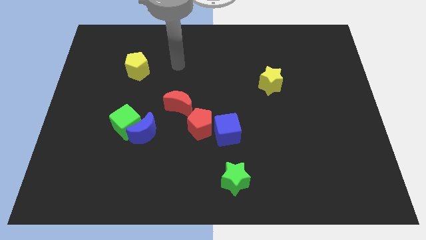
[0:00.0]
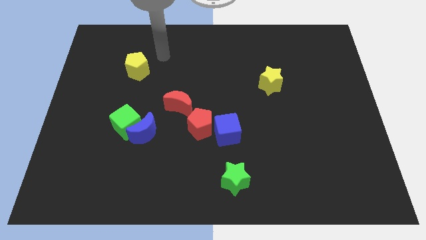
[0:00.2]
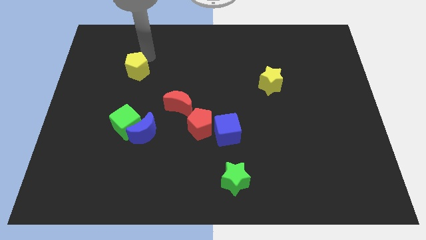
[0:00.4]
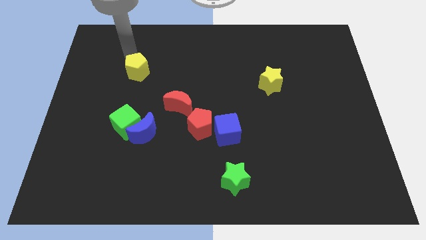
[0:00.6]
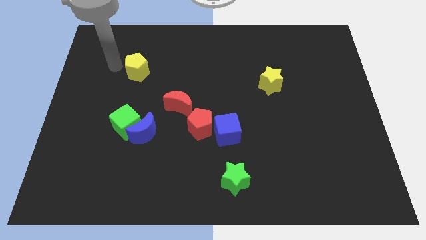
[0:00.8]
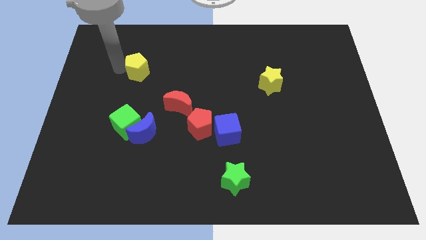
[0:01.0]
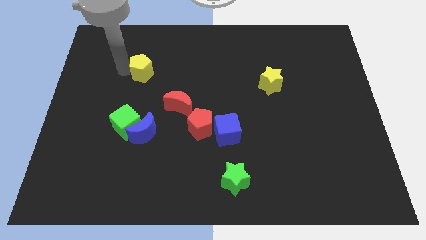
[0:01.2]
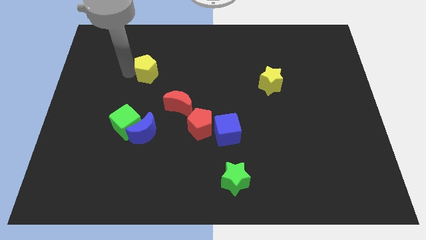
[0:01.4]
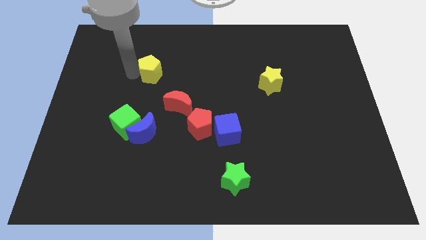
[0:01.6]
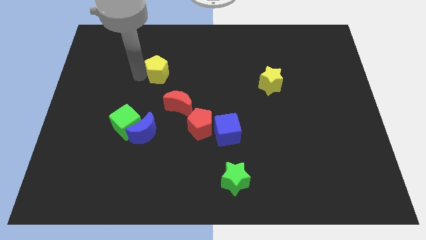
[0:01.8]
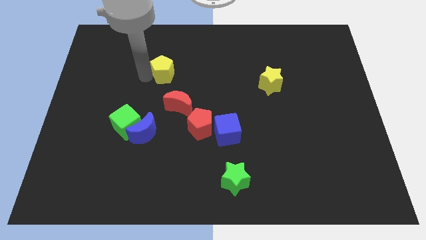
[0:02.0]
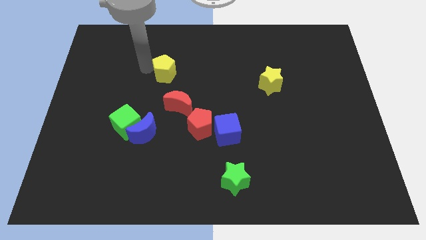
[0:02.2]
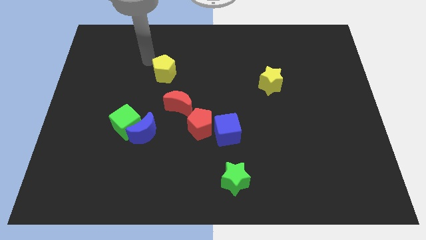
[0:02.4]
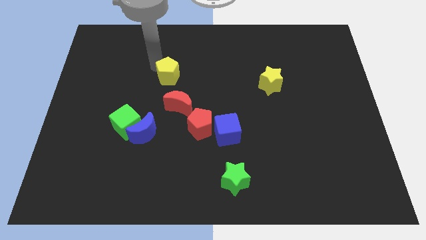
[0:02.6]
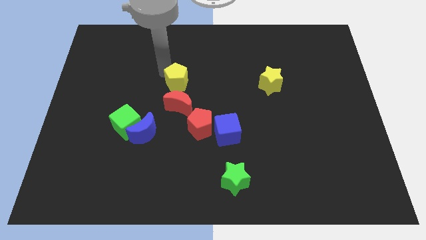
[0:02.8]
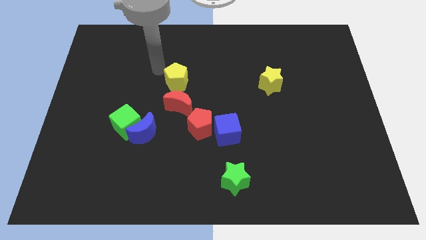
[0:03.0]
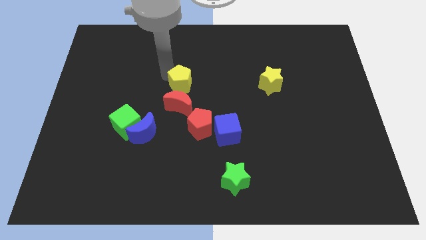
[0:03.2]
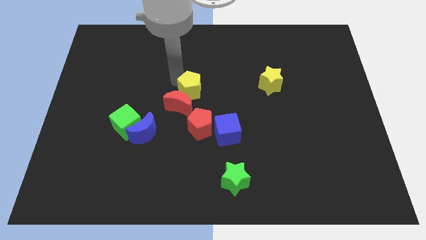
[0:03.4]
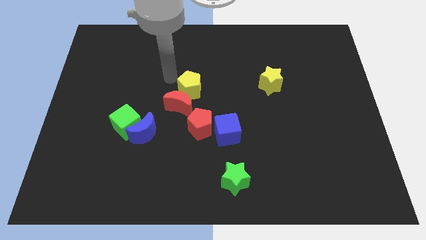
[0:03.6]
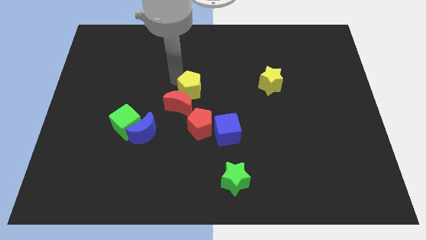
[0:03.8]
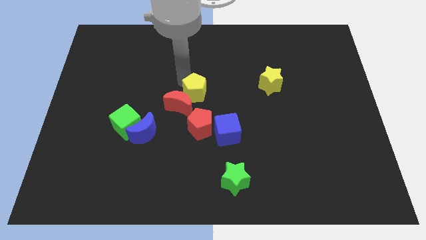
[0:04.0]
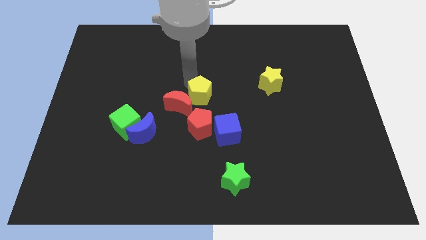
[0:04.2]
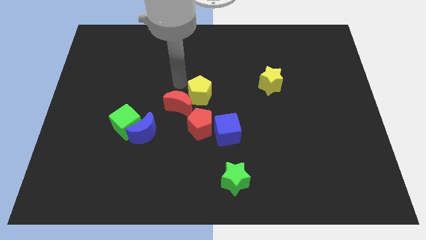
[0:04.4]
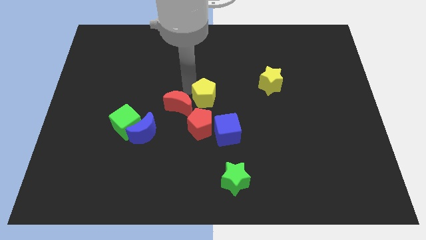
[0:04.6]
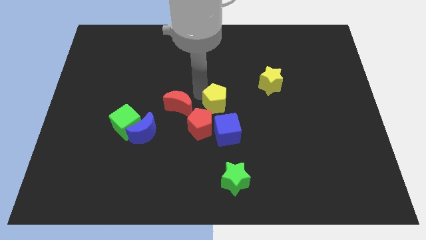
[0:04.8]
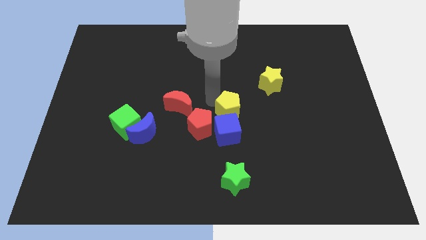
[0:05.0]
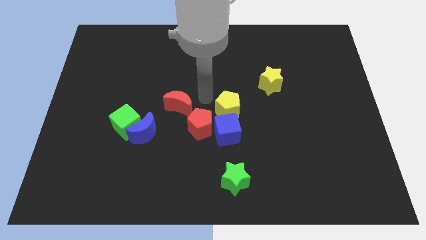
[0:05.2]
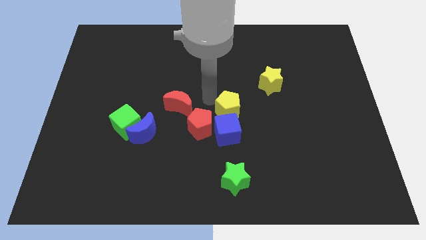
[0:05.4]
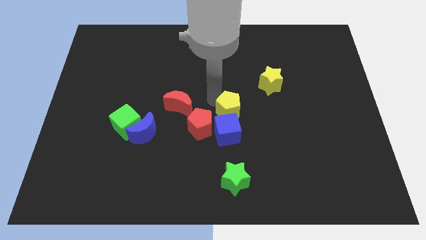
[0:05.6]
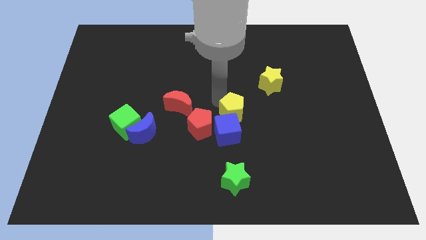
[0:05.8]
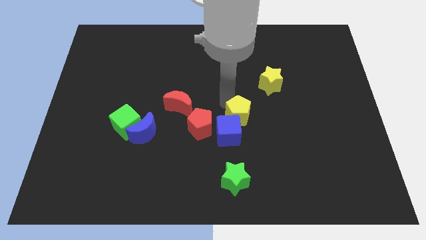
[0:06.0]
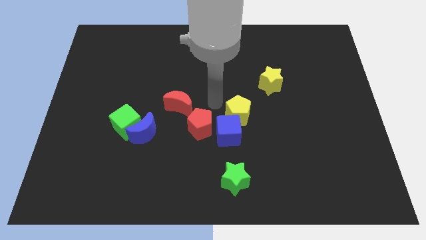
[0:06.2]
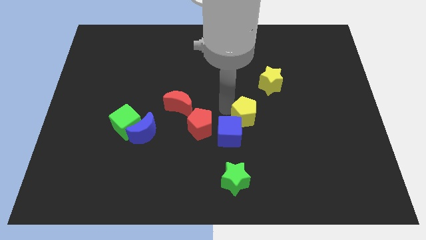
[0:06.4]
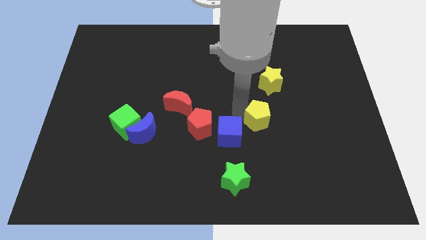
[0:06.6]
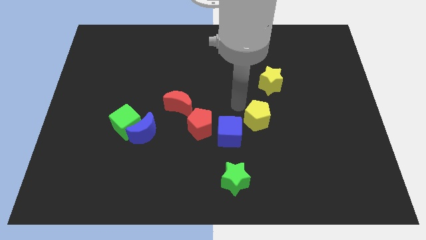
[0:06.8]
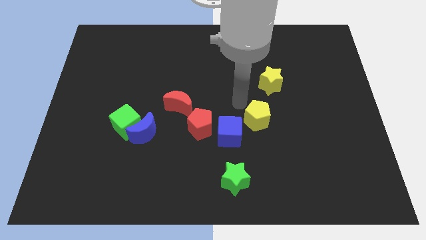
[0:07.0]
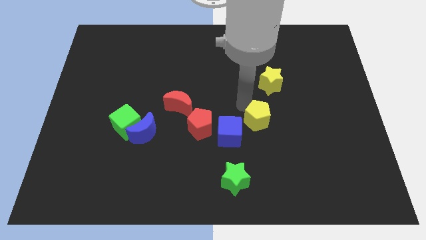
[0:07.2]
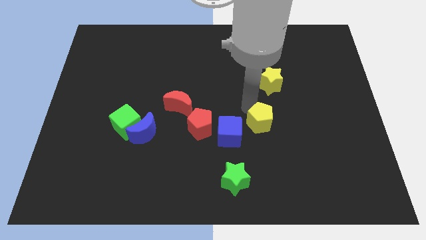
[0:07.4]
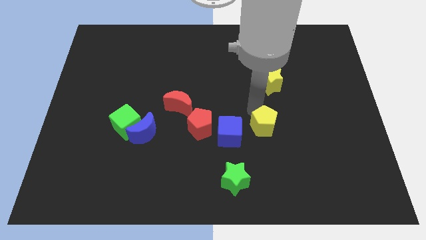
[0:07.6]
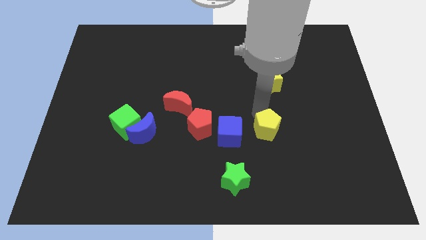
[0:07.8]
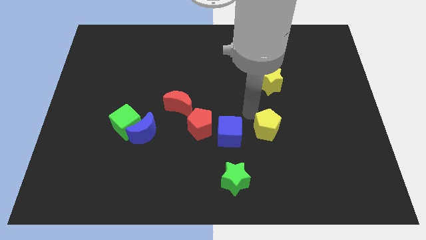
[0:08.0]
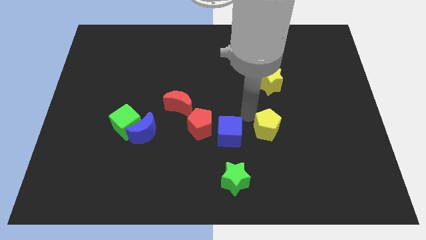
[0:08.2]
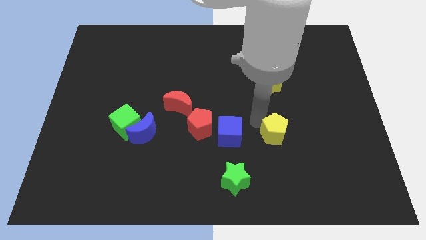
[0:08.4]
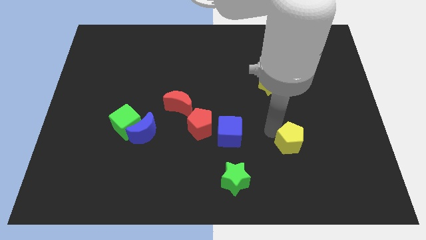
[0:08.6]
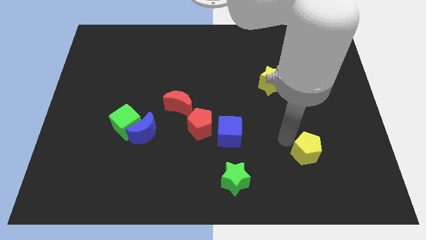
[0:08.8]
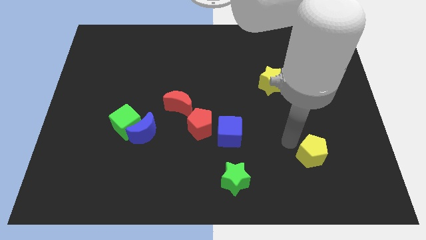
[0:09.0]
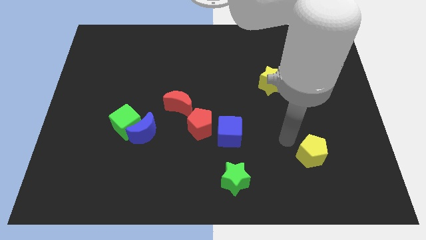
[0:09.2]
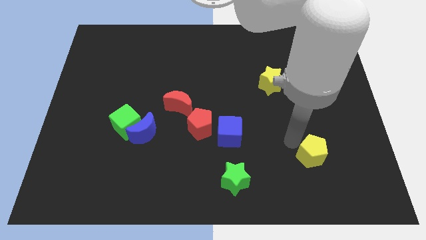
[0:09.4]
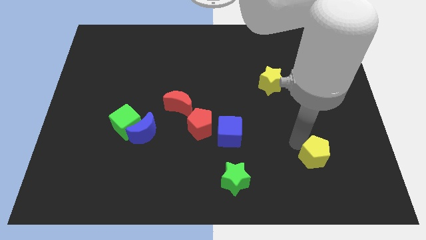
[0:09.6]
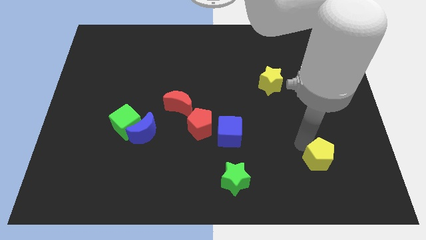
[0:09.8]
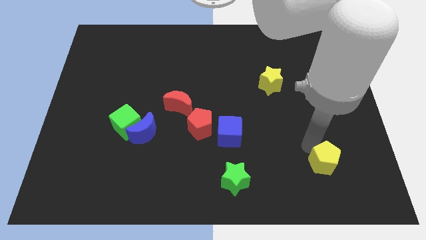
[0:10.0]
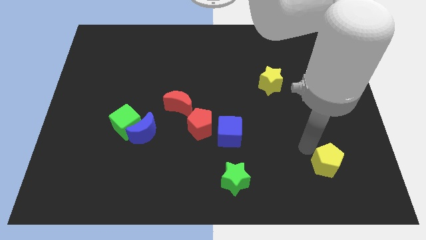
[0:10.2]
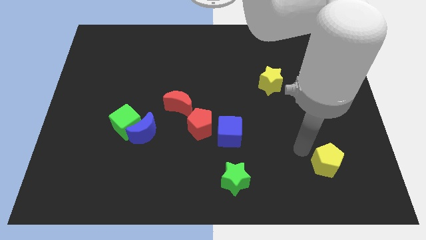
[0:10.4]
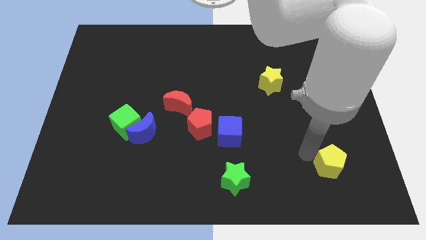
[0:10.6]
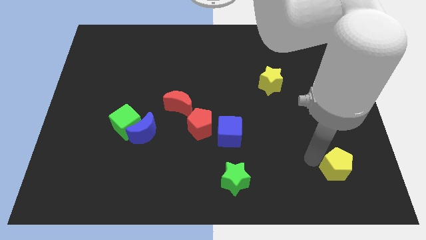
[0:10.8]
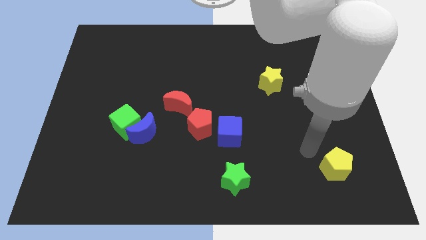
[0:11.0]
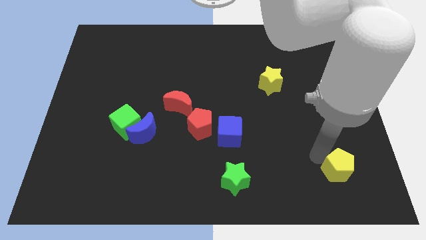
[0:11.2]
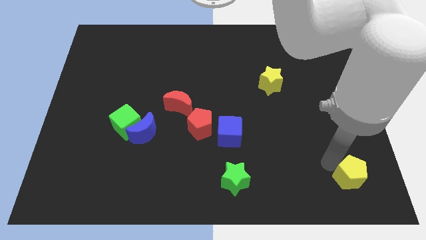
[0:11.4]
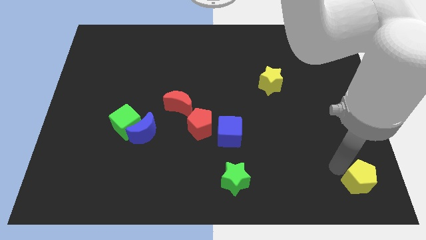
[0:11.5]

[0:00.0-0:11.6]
put the yellow pentagon to the bottom right corner

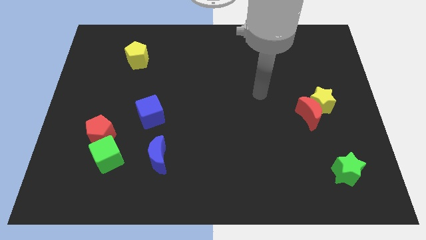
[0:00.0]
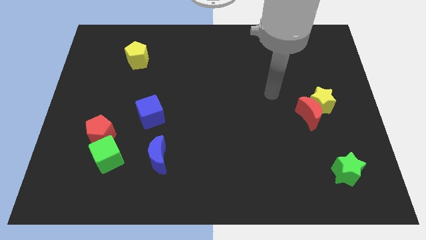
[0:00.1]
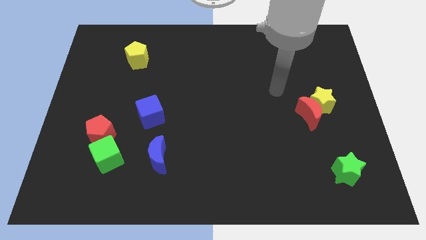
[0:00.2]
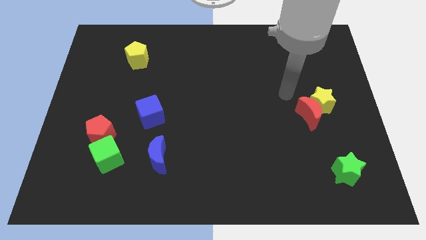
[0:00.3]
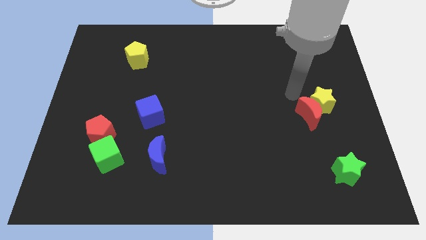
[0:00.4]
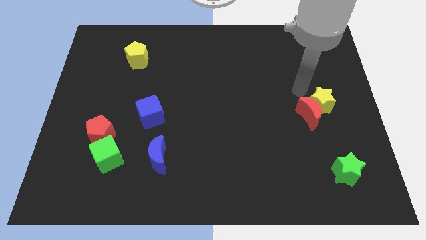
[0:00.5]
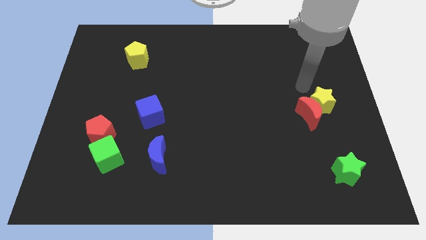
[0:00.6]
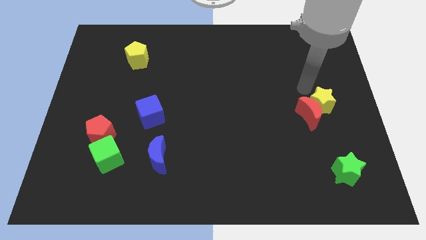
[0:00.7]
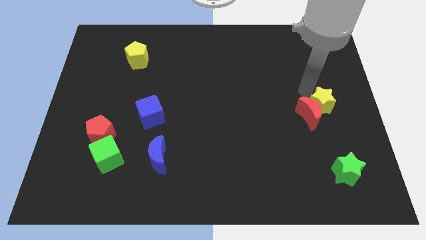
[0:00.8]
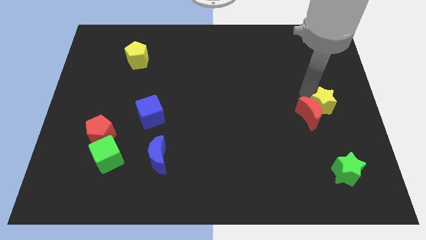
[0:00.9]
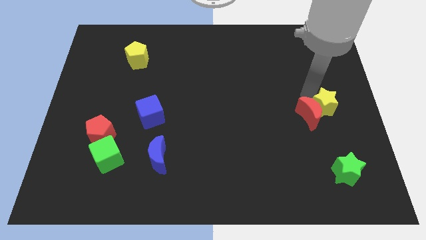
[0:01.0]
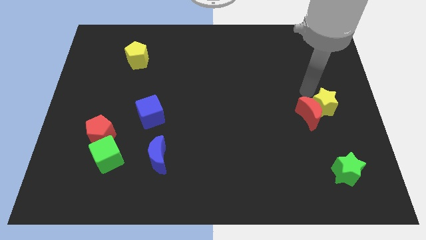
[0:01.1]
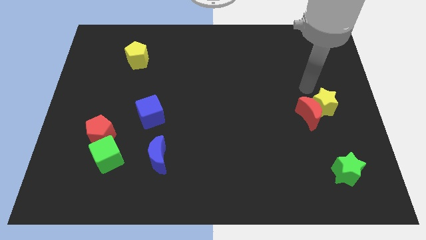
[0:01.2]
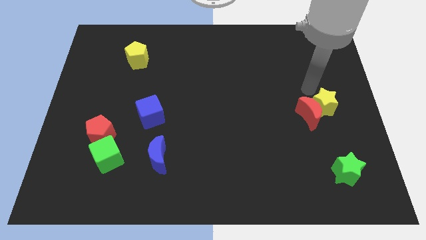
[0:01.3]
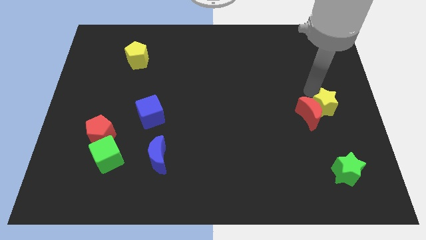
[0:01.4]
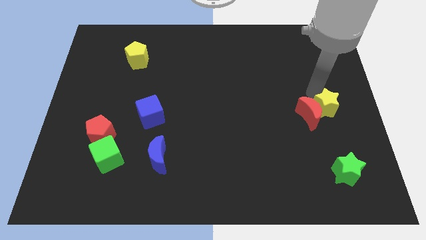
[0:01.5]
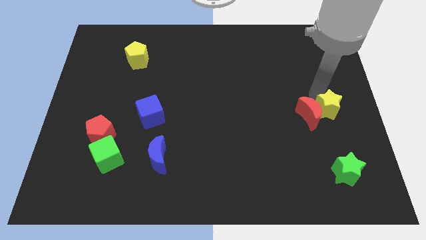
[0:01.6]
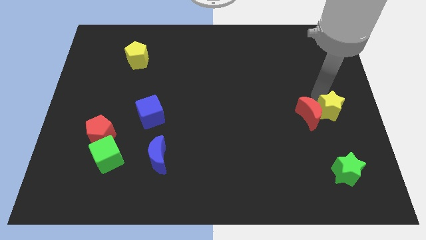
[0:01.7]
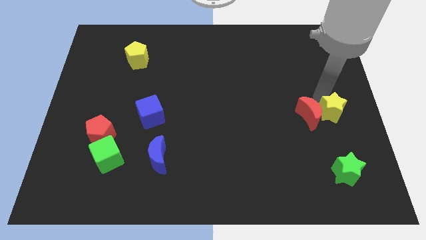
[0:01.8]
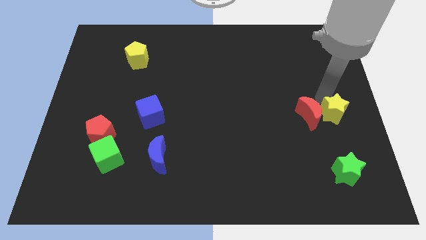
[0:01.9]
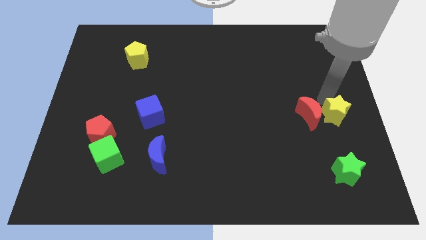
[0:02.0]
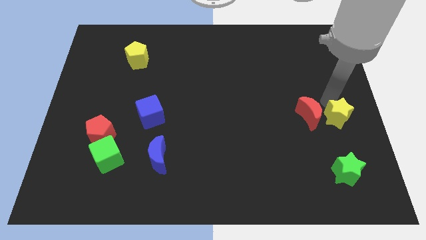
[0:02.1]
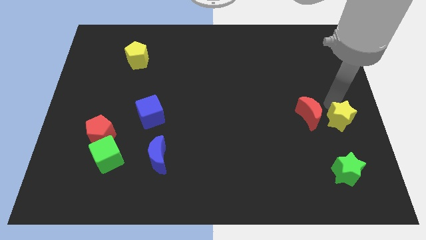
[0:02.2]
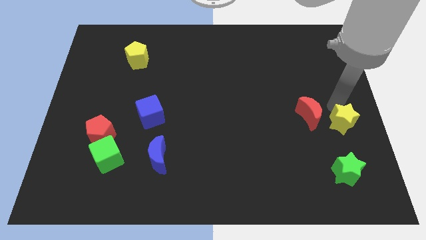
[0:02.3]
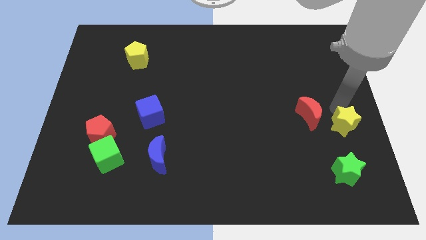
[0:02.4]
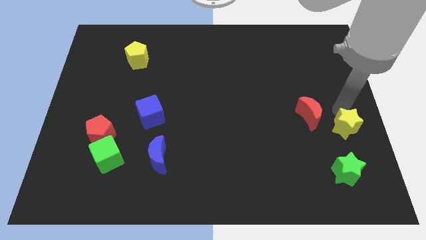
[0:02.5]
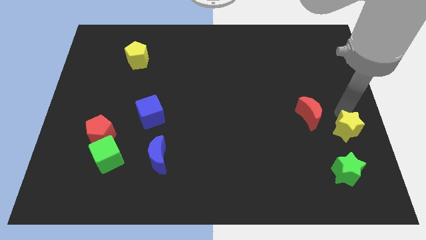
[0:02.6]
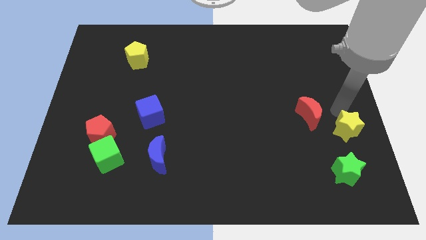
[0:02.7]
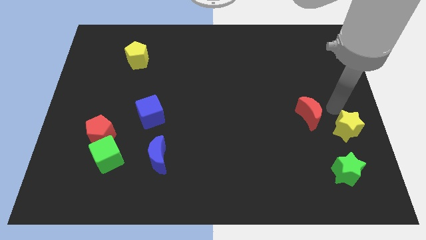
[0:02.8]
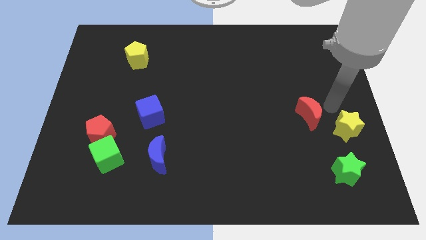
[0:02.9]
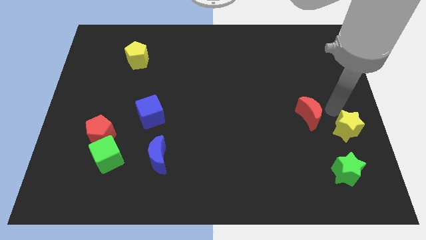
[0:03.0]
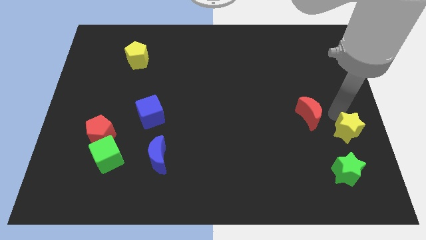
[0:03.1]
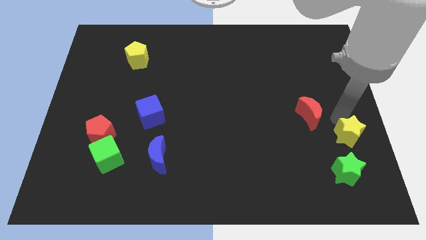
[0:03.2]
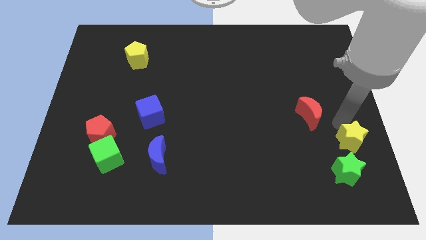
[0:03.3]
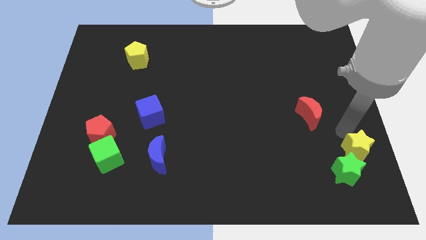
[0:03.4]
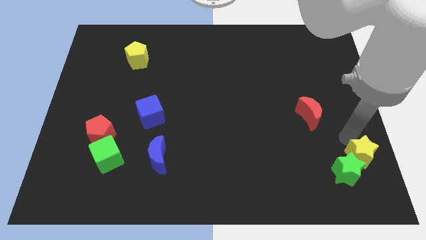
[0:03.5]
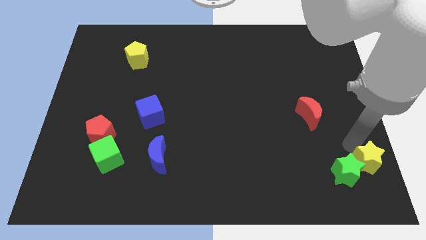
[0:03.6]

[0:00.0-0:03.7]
slide the yellow star to the bottom right of the board
